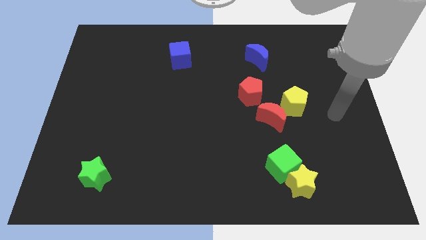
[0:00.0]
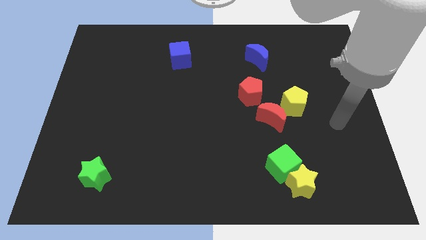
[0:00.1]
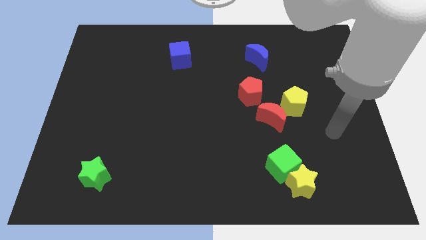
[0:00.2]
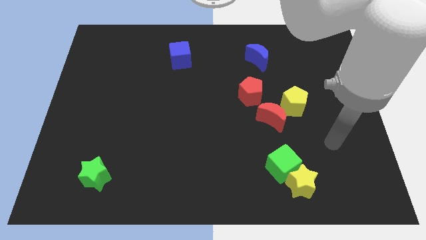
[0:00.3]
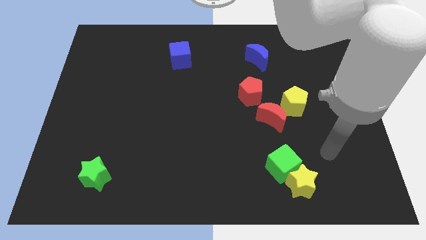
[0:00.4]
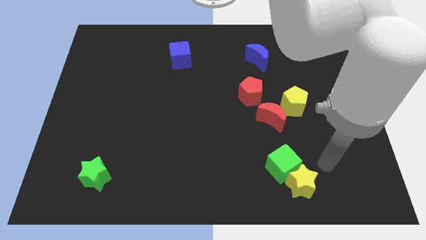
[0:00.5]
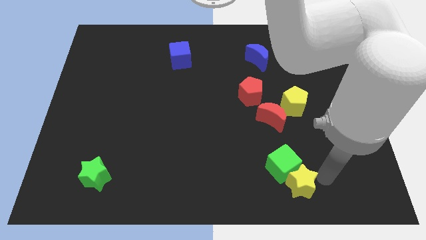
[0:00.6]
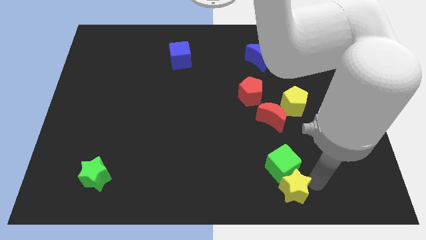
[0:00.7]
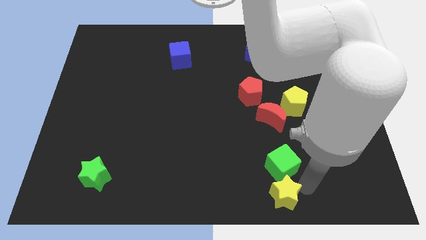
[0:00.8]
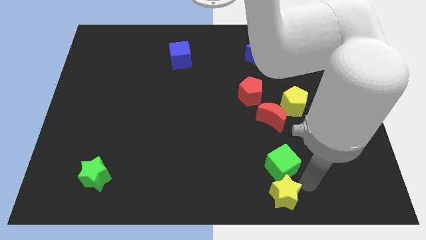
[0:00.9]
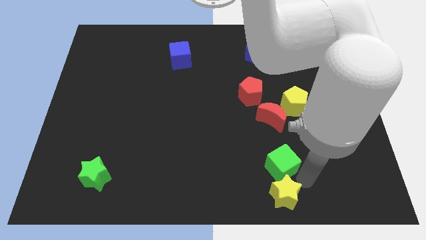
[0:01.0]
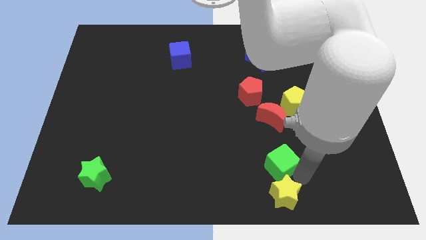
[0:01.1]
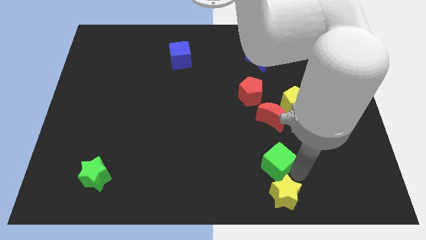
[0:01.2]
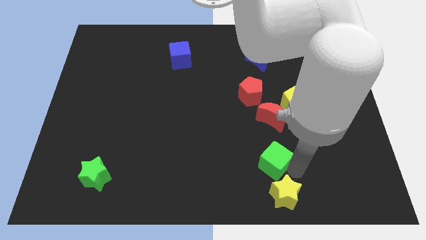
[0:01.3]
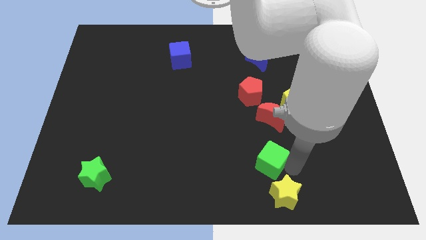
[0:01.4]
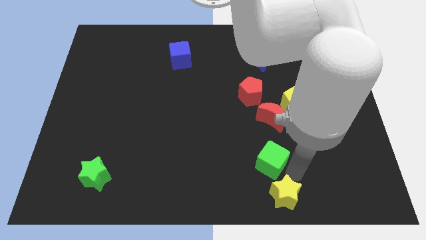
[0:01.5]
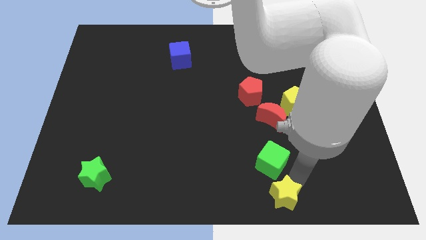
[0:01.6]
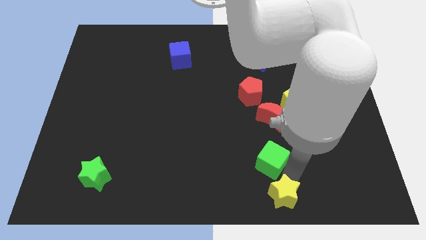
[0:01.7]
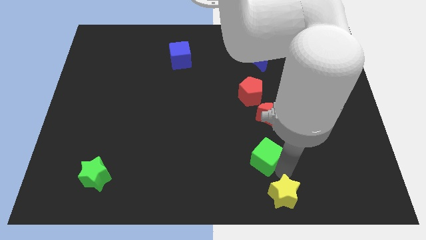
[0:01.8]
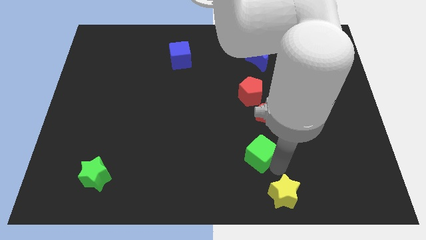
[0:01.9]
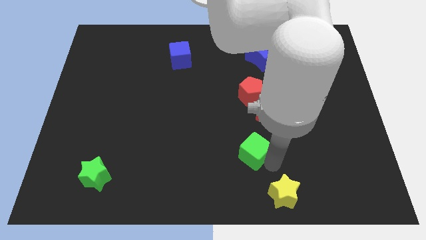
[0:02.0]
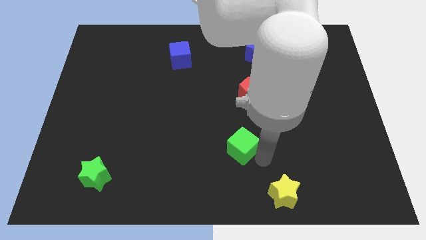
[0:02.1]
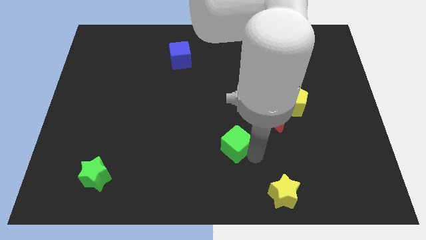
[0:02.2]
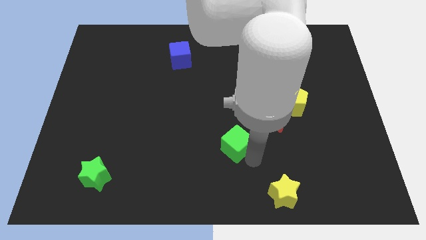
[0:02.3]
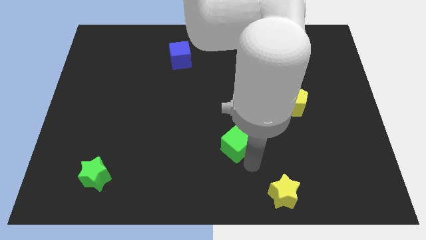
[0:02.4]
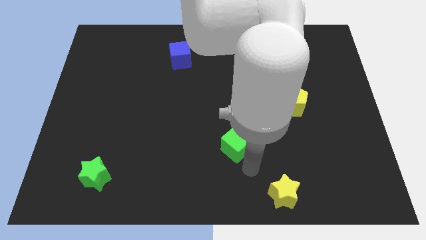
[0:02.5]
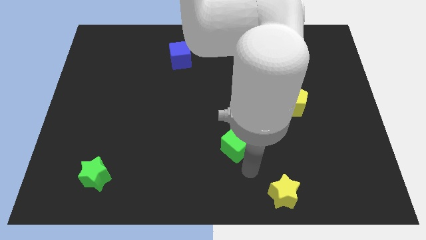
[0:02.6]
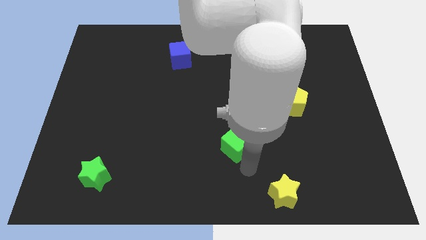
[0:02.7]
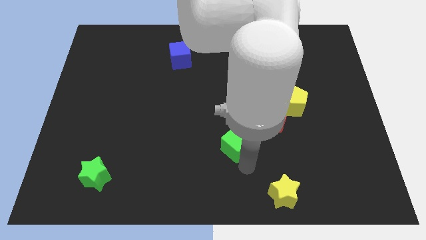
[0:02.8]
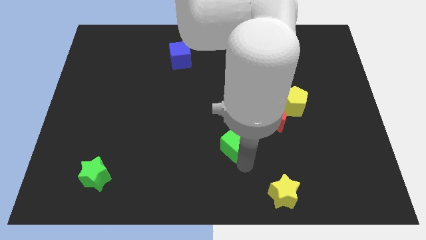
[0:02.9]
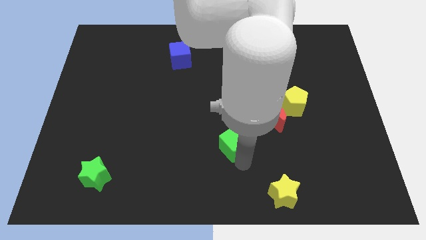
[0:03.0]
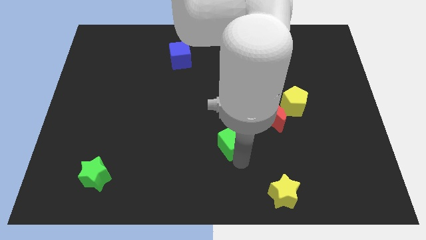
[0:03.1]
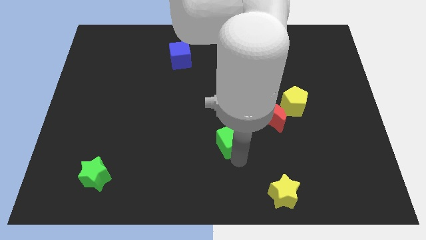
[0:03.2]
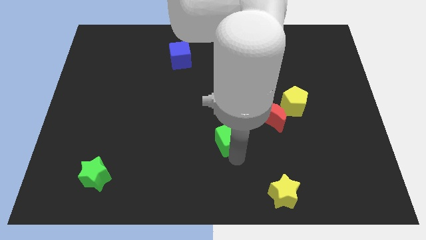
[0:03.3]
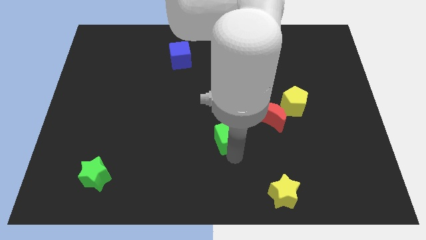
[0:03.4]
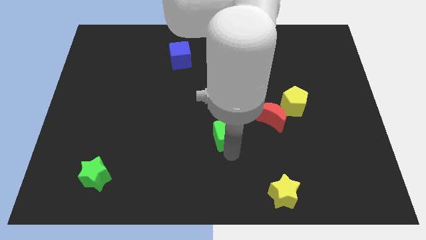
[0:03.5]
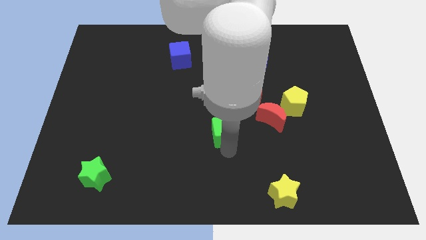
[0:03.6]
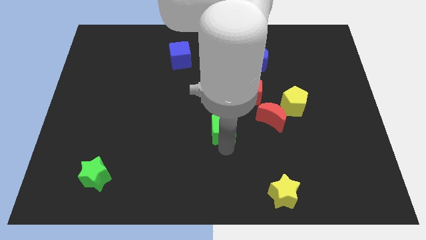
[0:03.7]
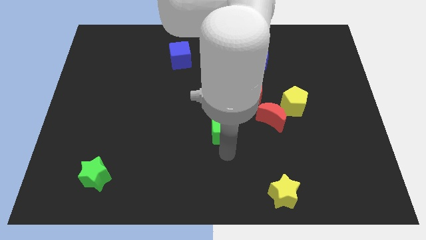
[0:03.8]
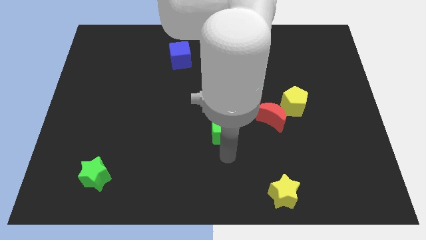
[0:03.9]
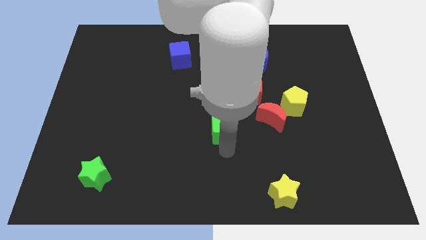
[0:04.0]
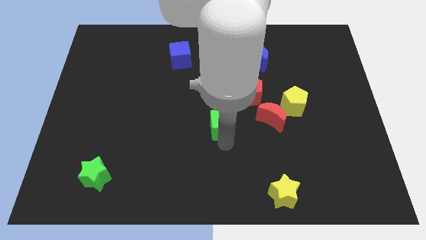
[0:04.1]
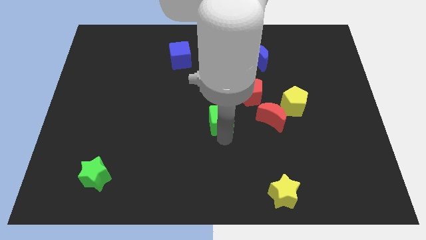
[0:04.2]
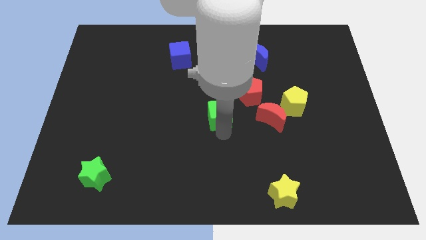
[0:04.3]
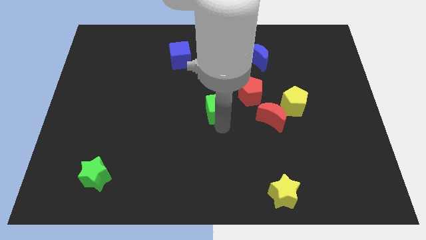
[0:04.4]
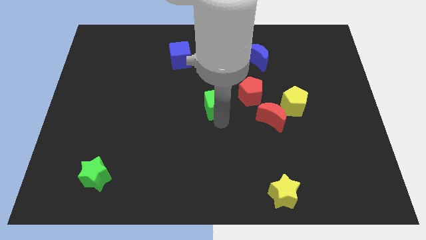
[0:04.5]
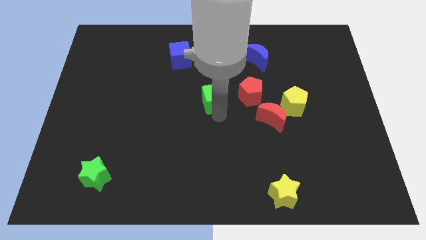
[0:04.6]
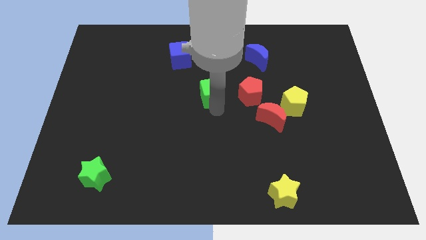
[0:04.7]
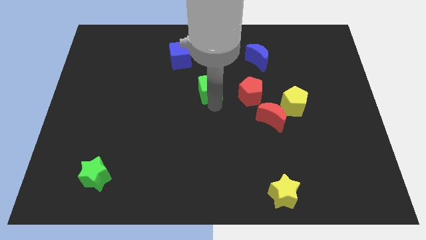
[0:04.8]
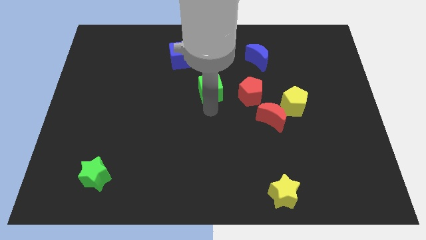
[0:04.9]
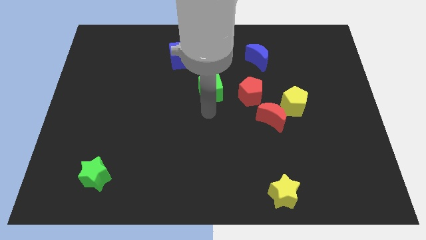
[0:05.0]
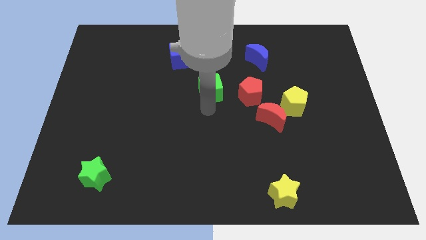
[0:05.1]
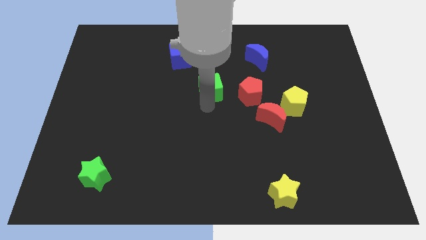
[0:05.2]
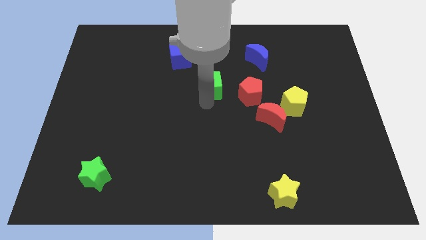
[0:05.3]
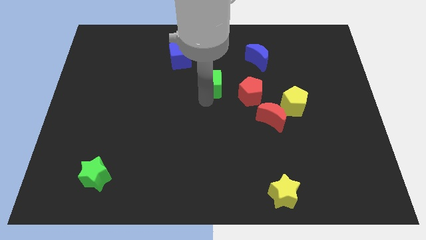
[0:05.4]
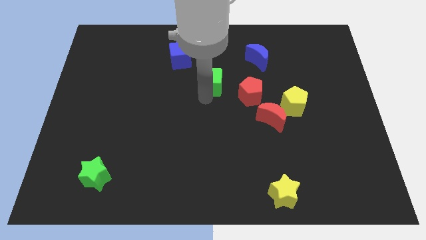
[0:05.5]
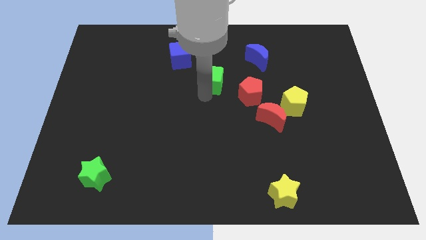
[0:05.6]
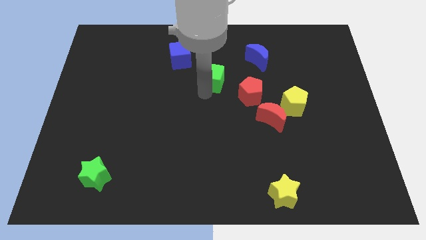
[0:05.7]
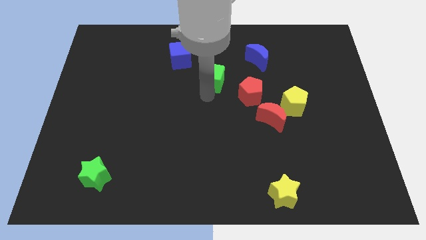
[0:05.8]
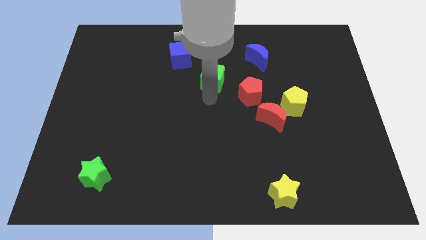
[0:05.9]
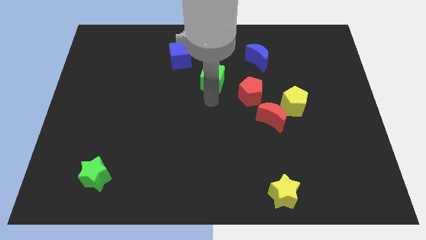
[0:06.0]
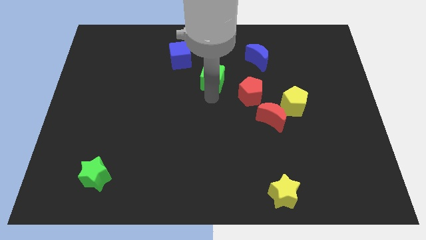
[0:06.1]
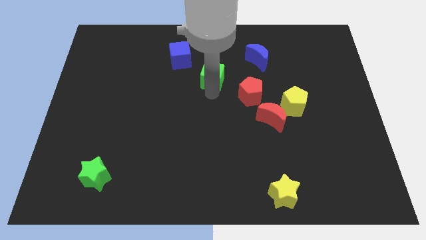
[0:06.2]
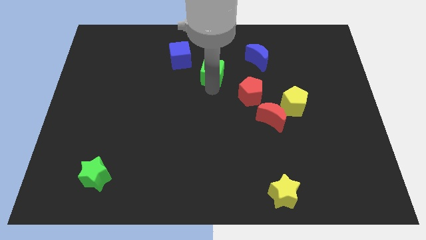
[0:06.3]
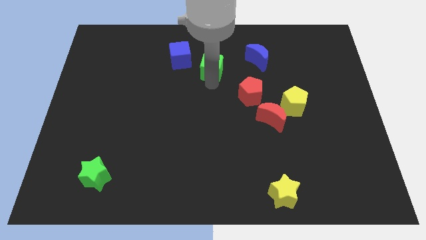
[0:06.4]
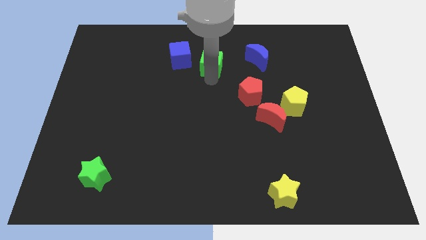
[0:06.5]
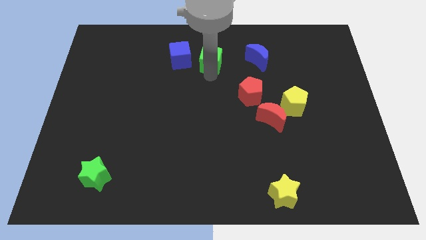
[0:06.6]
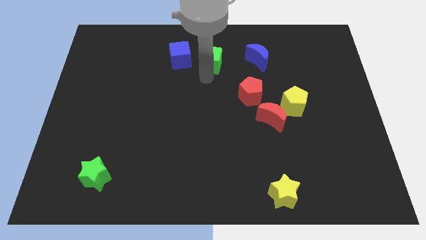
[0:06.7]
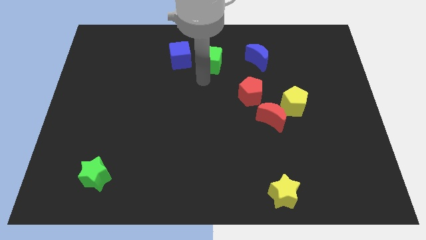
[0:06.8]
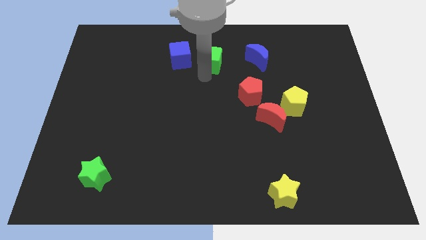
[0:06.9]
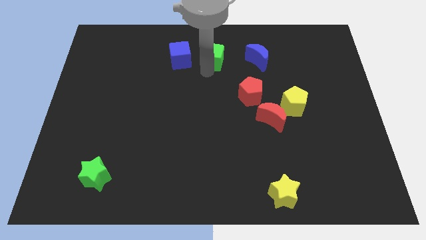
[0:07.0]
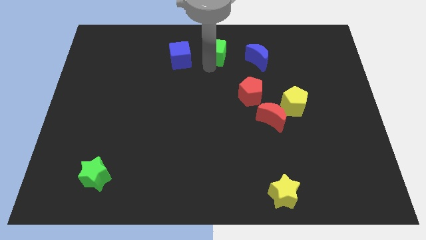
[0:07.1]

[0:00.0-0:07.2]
move the green cube to the top side

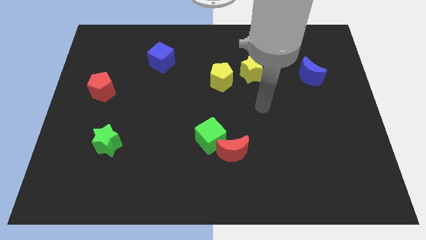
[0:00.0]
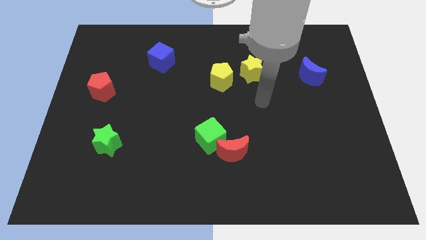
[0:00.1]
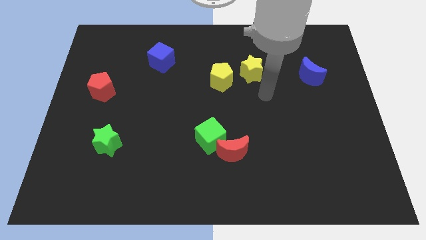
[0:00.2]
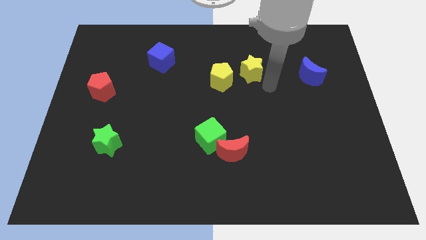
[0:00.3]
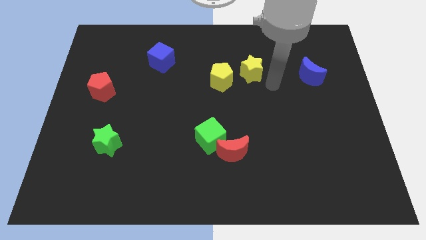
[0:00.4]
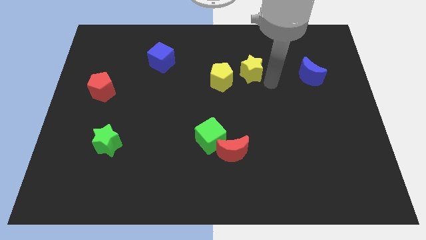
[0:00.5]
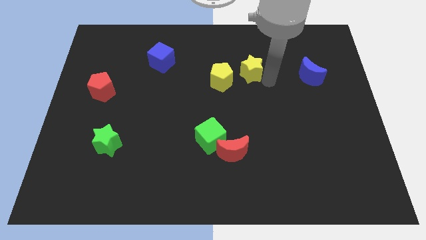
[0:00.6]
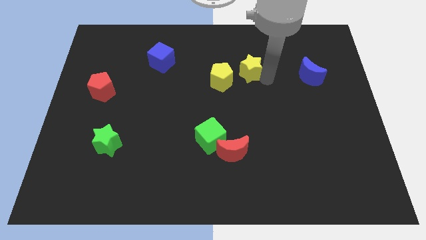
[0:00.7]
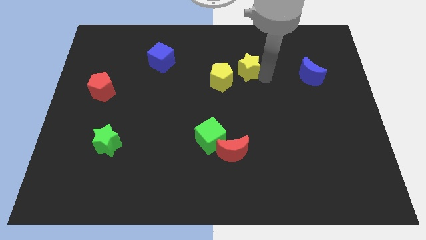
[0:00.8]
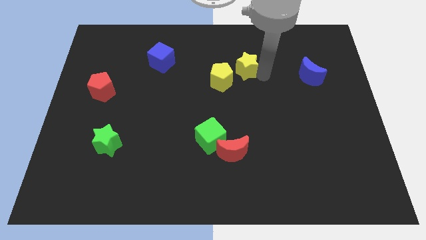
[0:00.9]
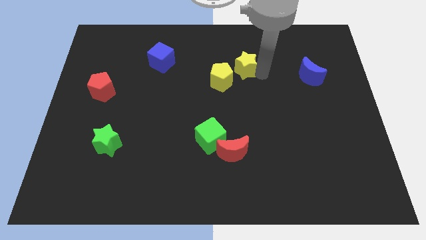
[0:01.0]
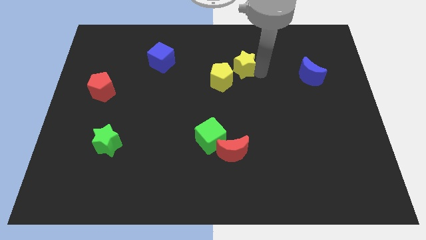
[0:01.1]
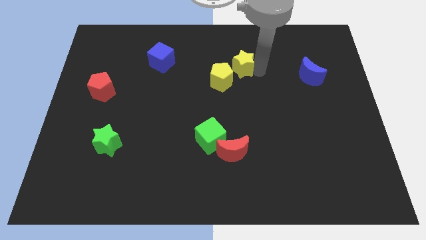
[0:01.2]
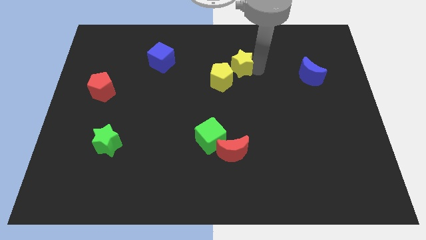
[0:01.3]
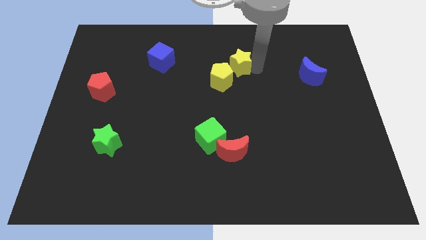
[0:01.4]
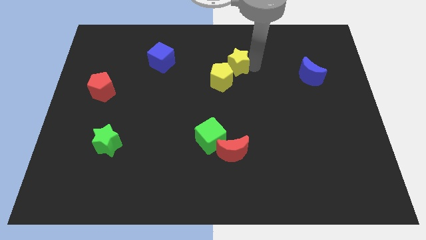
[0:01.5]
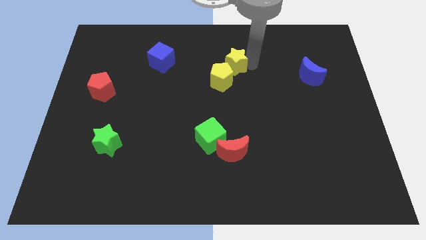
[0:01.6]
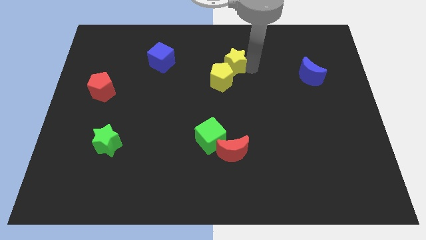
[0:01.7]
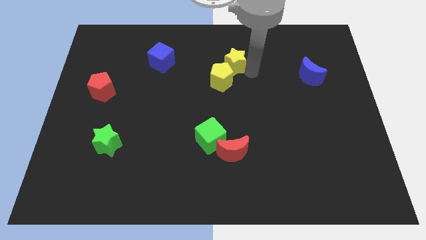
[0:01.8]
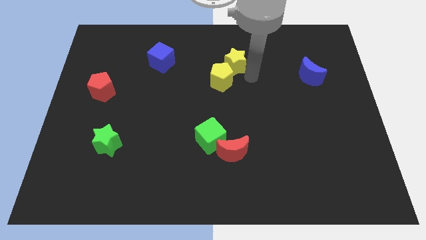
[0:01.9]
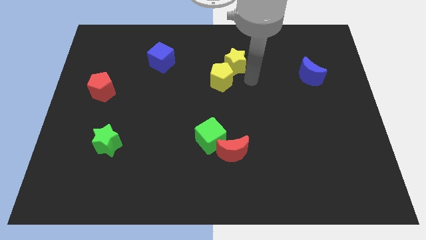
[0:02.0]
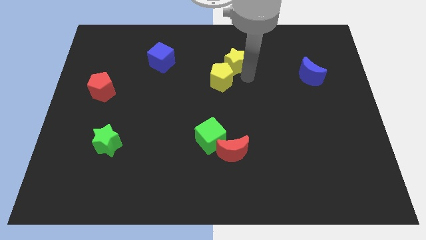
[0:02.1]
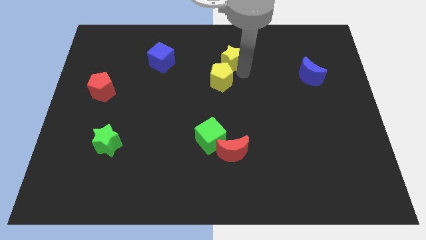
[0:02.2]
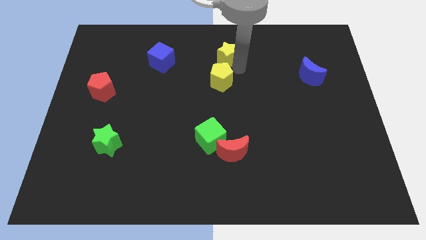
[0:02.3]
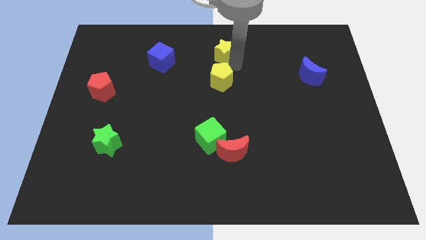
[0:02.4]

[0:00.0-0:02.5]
slide the yellow star to the top side
